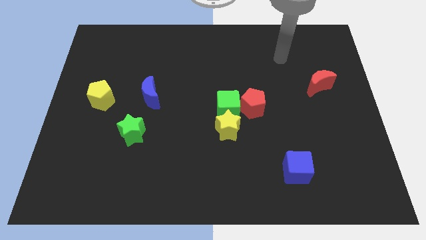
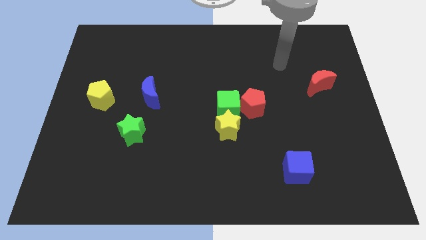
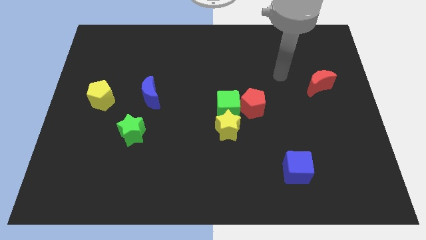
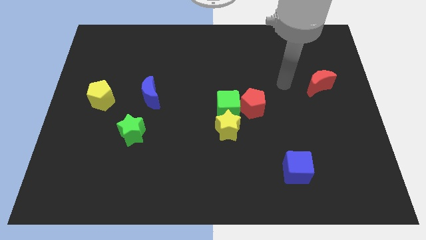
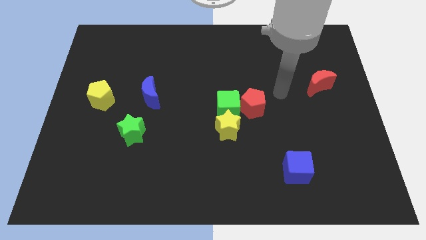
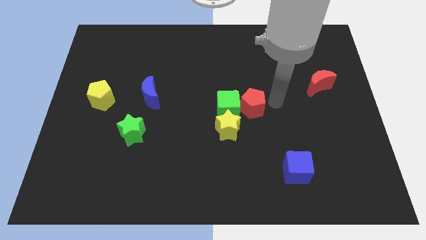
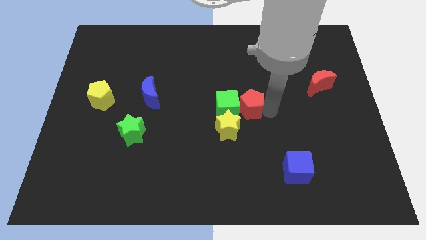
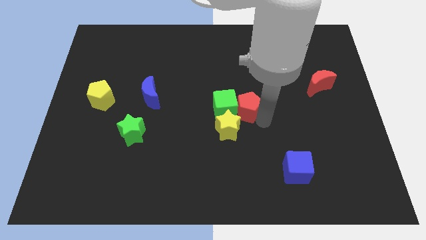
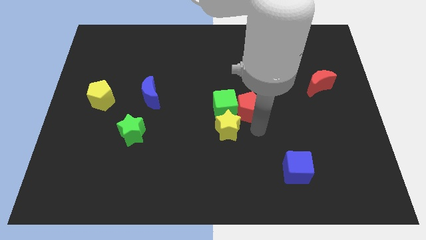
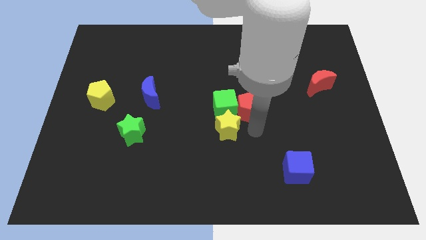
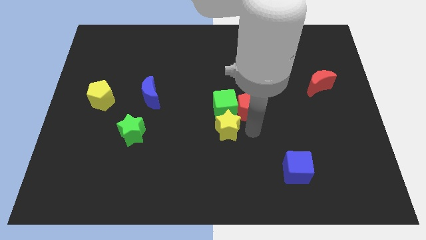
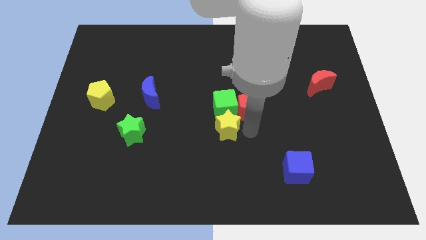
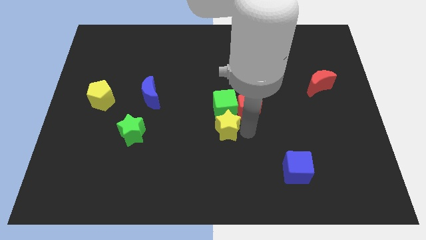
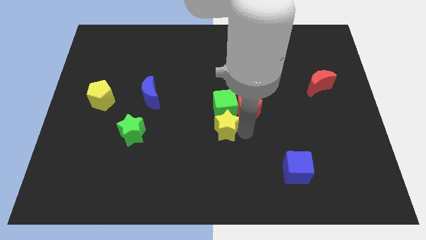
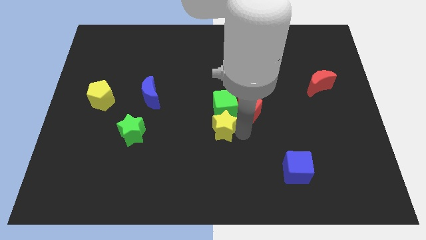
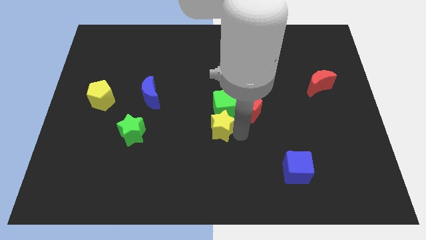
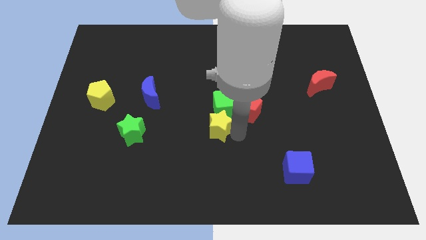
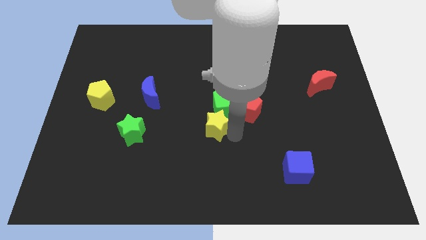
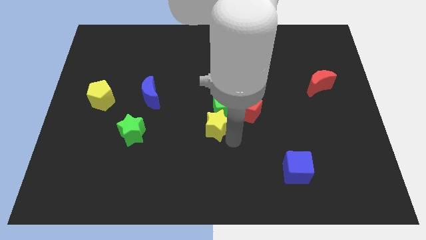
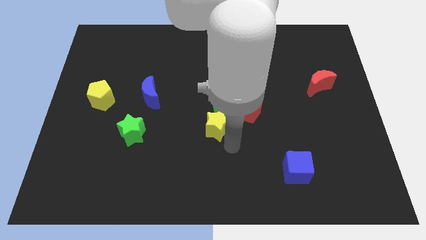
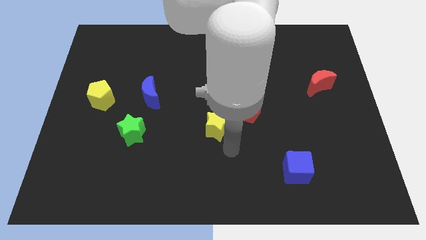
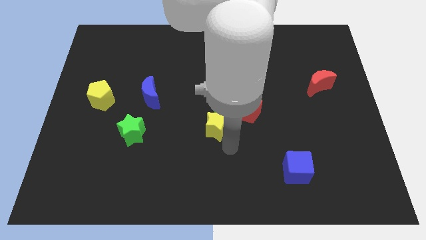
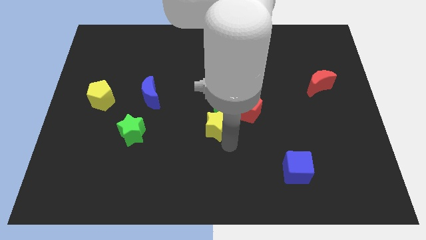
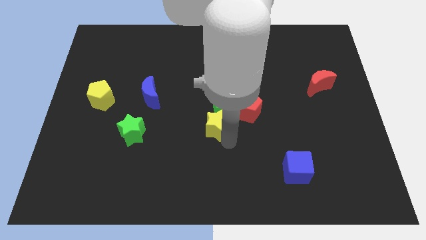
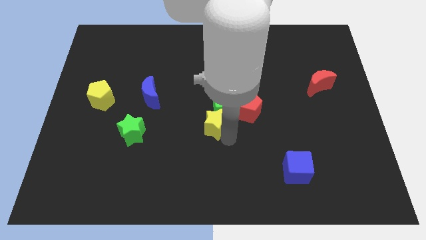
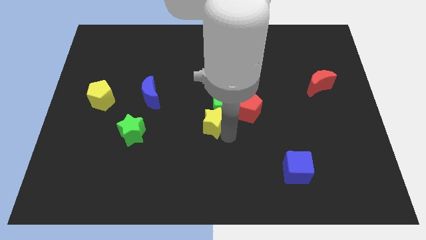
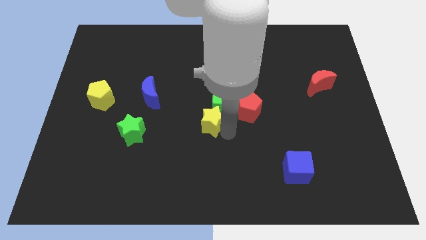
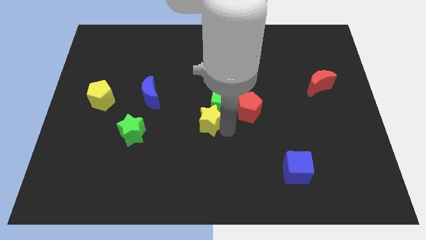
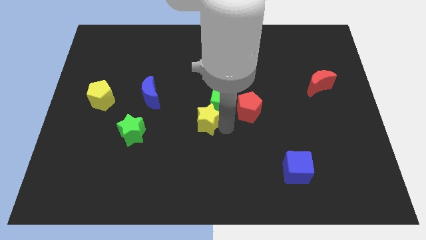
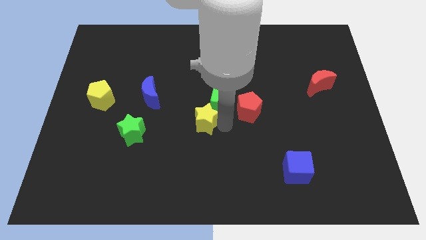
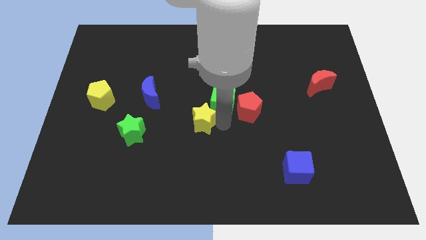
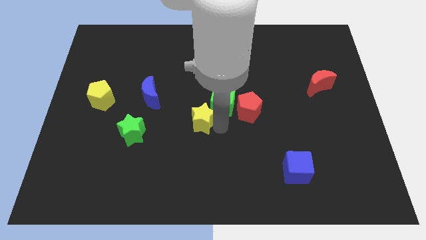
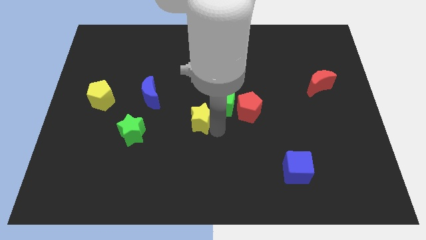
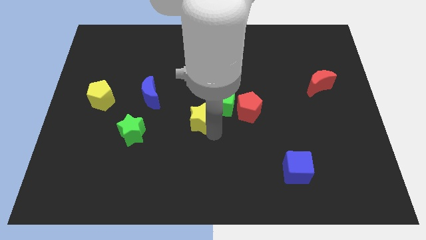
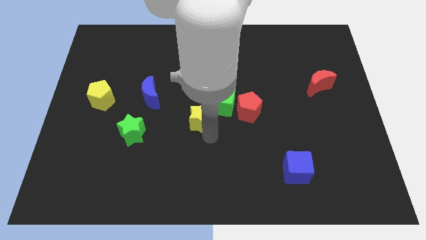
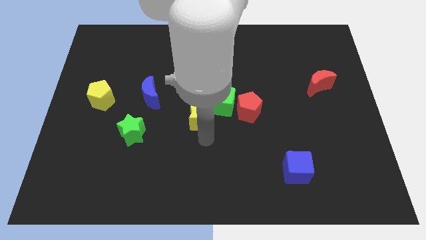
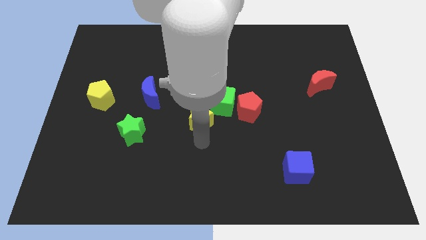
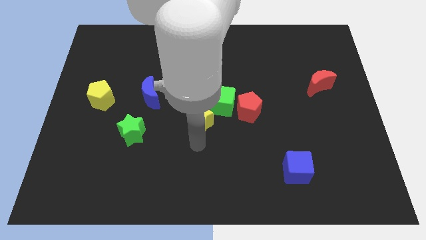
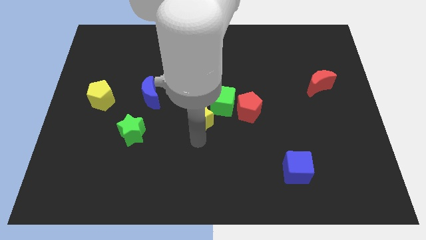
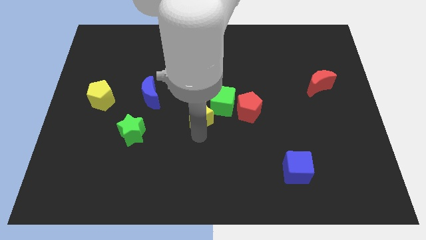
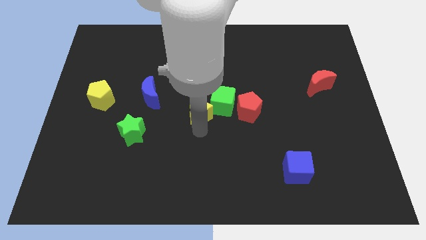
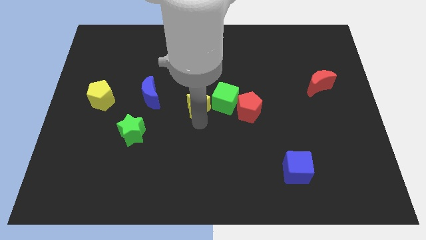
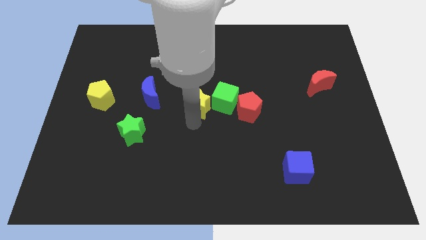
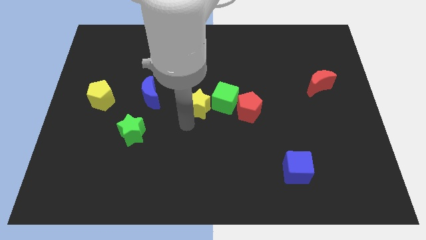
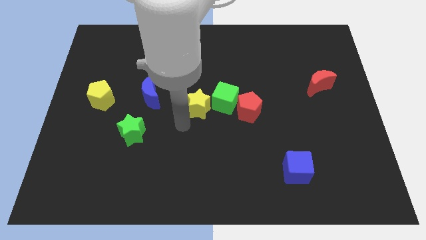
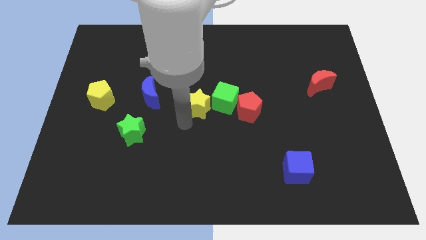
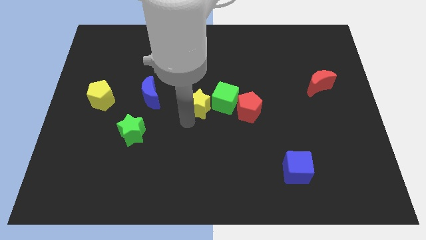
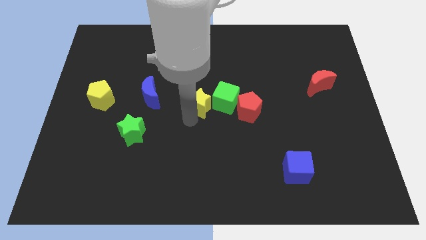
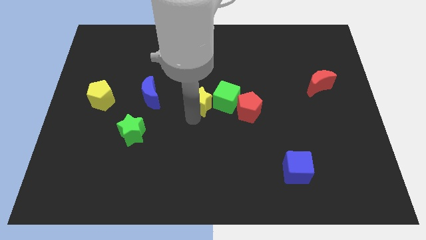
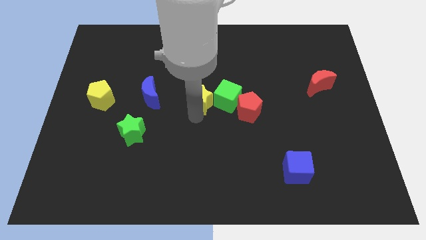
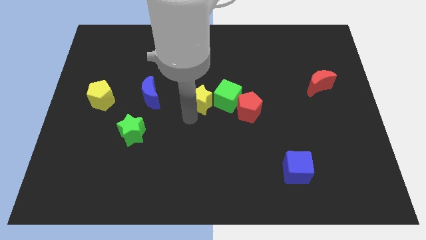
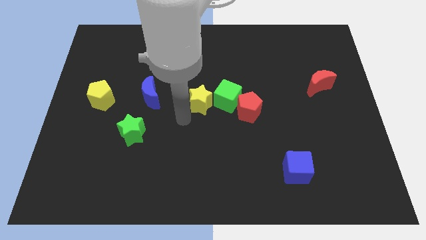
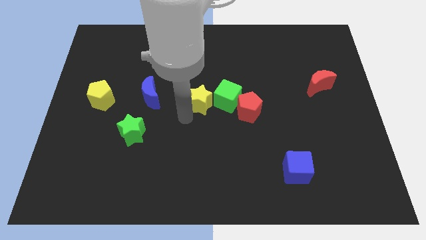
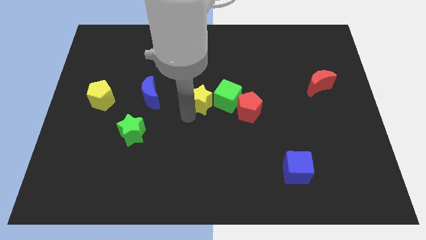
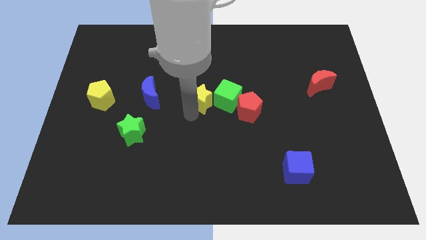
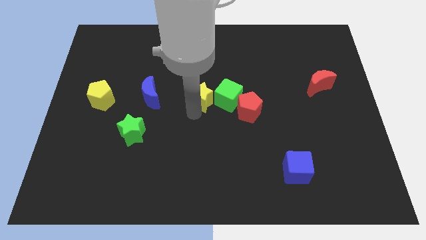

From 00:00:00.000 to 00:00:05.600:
move the yellow star a little up

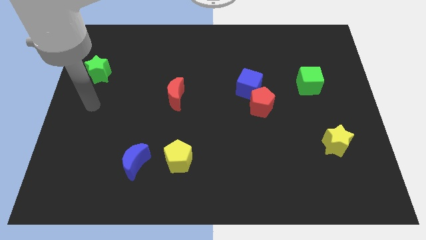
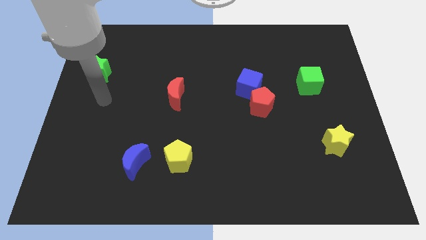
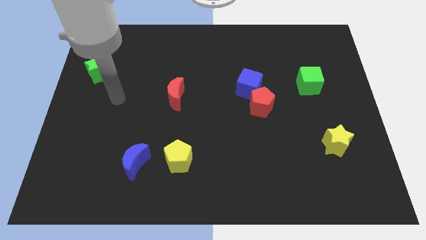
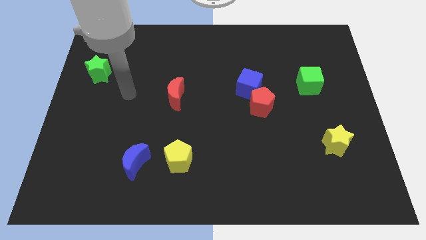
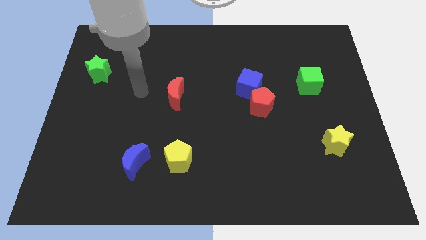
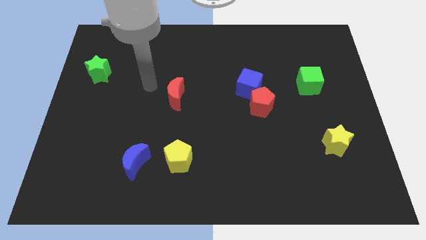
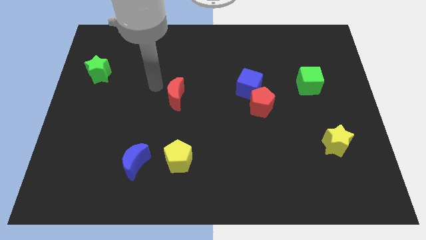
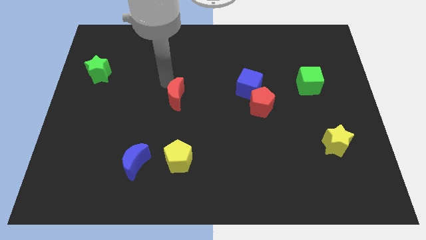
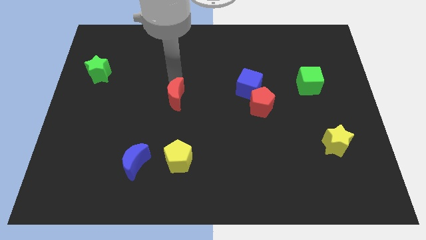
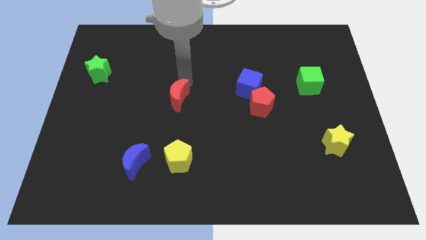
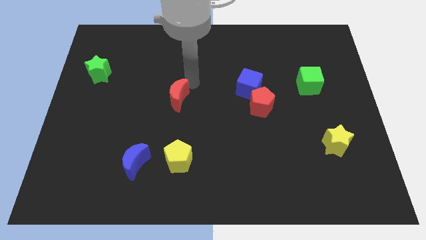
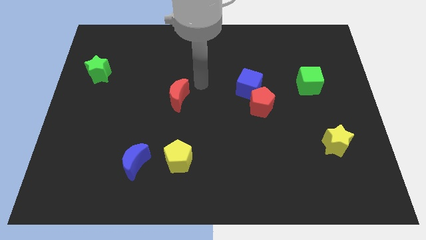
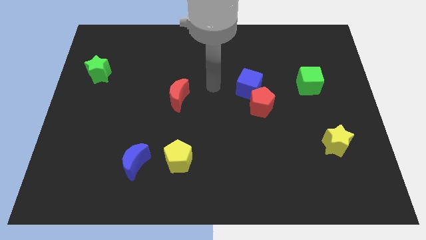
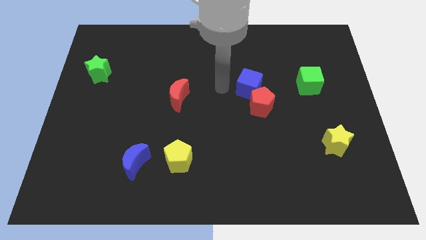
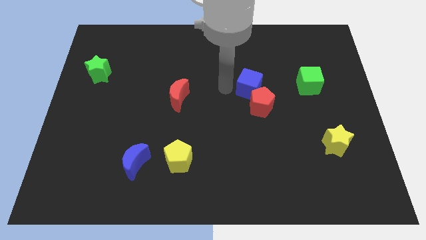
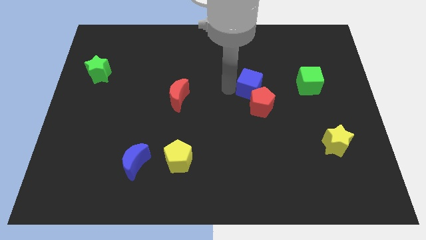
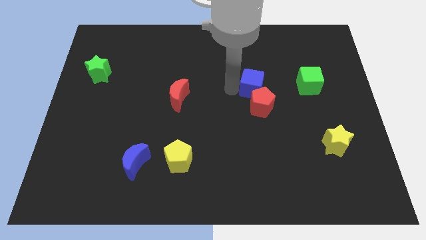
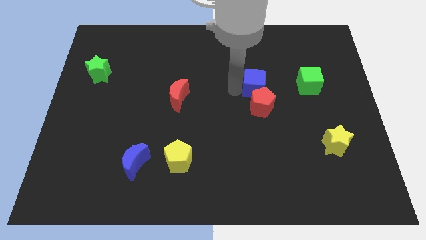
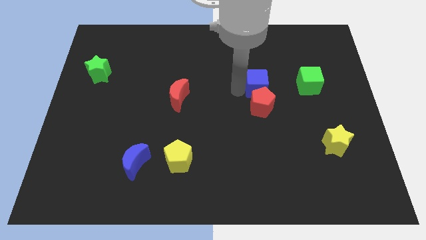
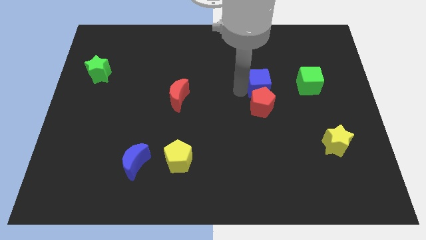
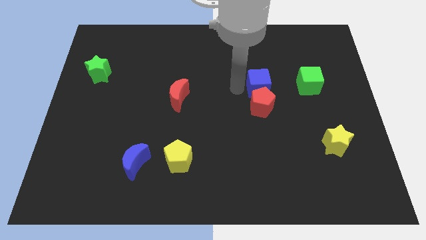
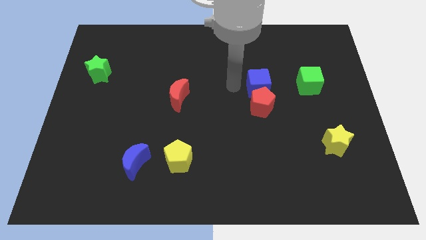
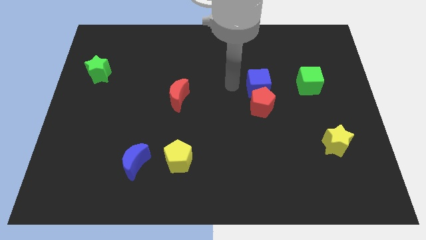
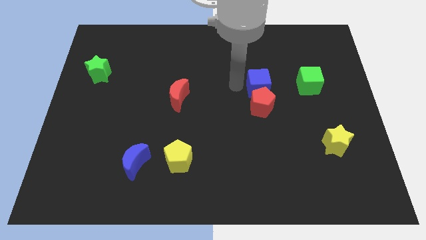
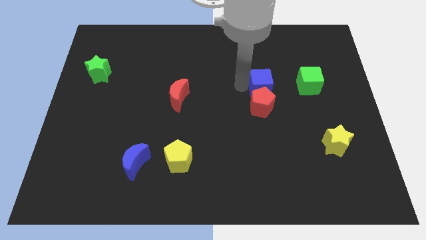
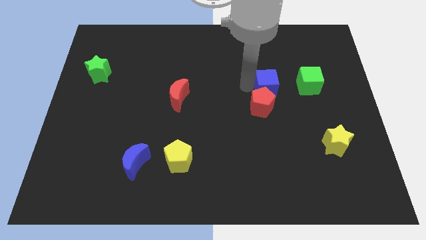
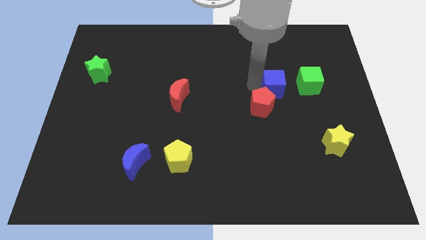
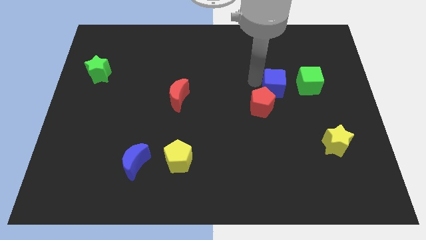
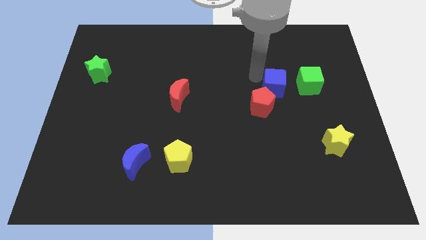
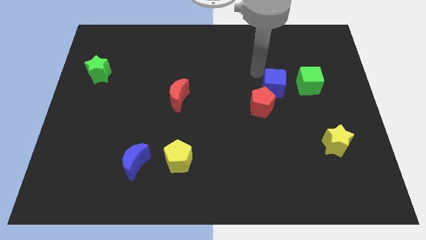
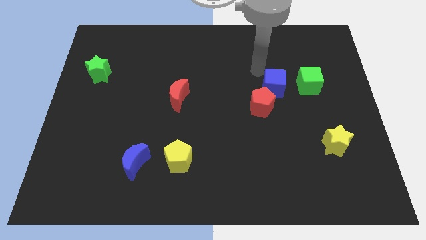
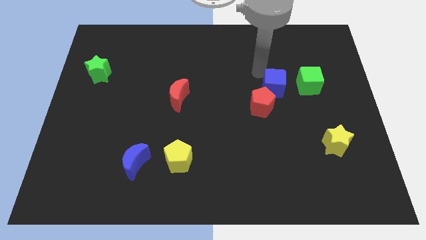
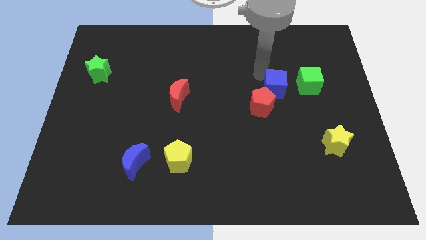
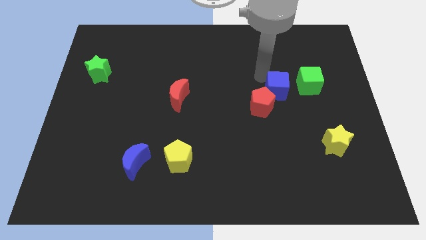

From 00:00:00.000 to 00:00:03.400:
push the blue cube to the right slightly
